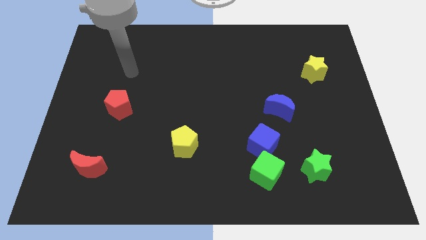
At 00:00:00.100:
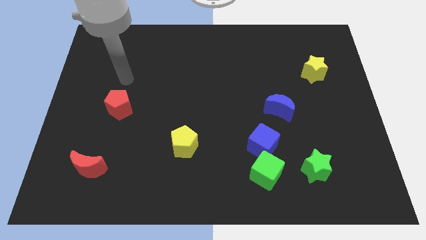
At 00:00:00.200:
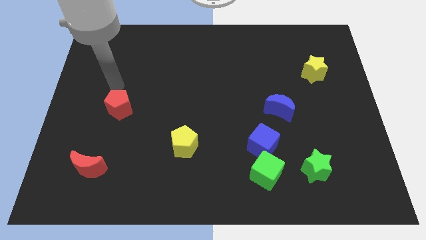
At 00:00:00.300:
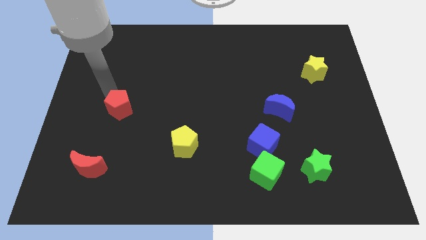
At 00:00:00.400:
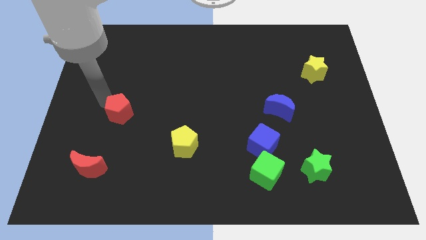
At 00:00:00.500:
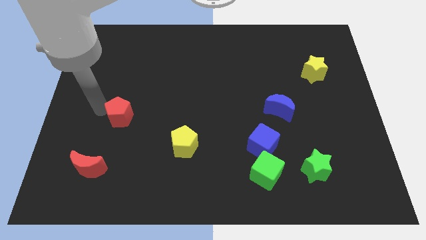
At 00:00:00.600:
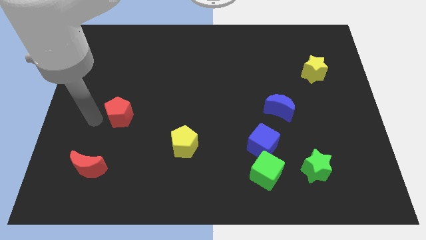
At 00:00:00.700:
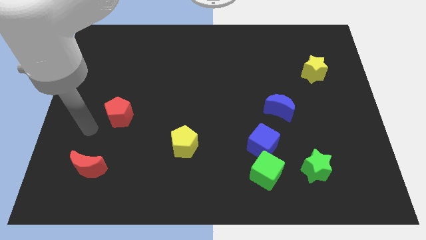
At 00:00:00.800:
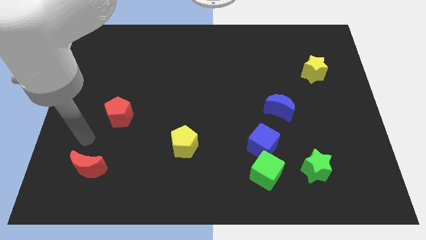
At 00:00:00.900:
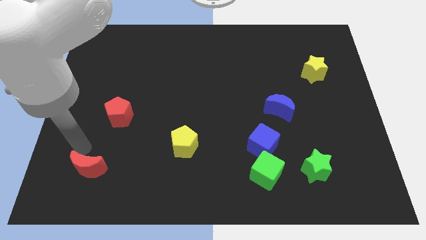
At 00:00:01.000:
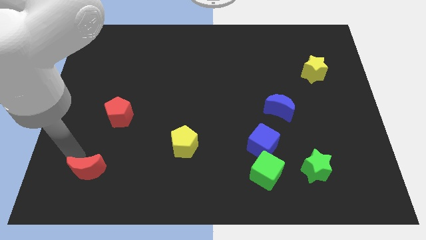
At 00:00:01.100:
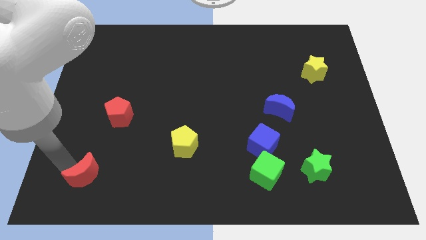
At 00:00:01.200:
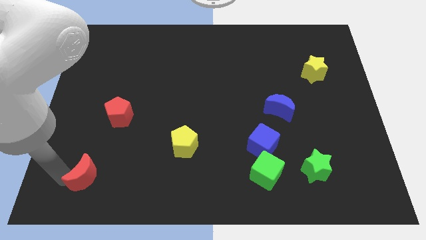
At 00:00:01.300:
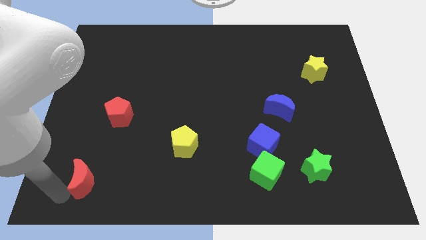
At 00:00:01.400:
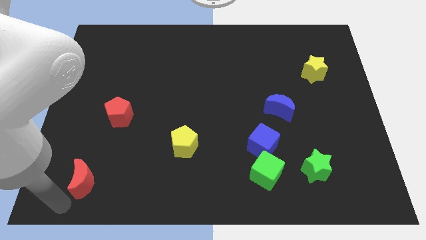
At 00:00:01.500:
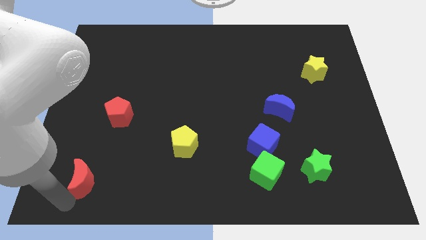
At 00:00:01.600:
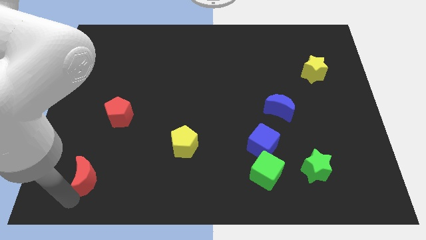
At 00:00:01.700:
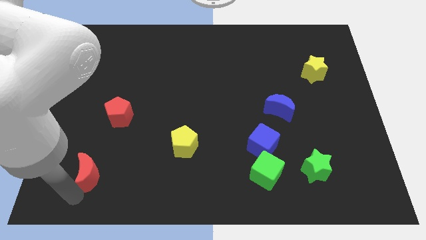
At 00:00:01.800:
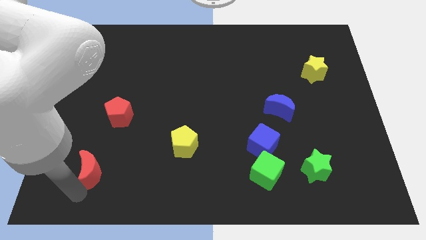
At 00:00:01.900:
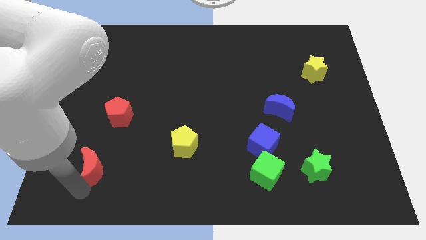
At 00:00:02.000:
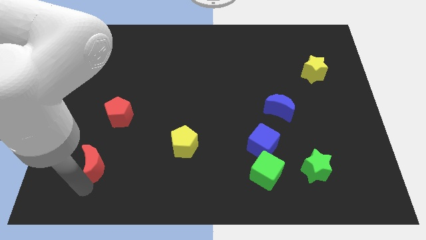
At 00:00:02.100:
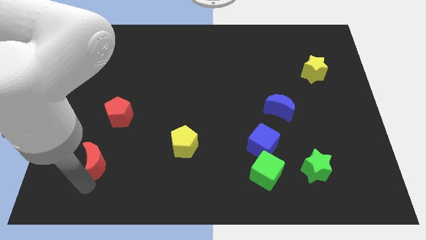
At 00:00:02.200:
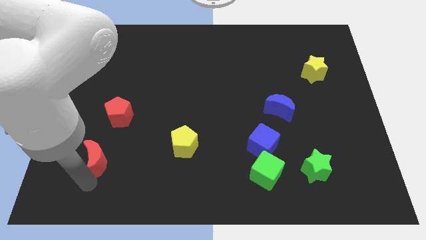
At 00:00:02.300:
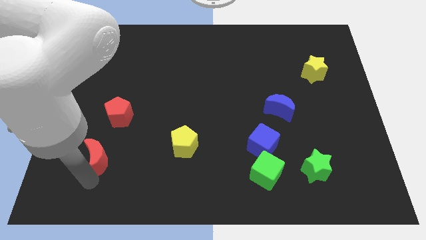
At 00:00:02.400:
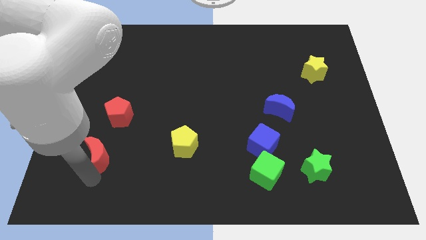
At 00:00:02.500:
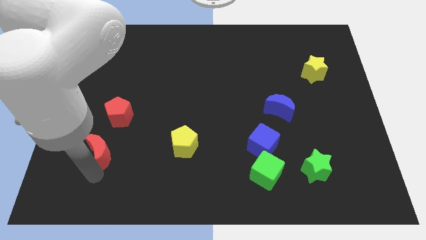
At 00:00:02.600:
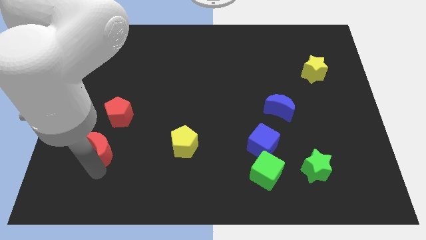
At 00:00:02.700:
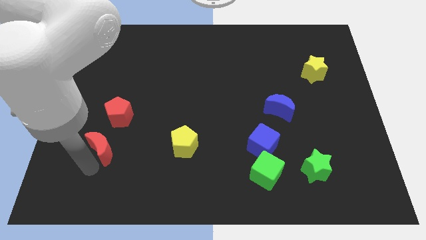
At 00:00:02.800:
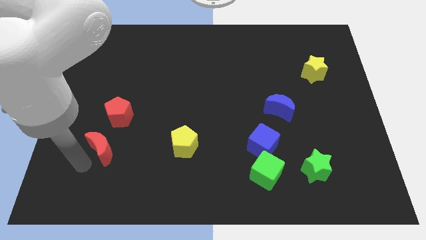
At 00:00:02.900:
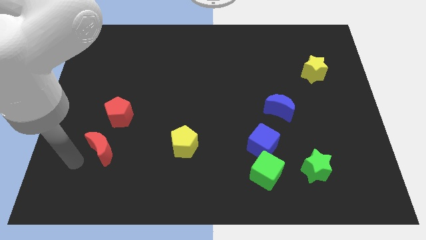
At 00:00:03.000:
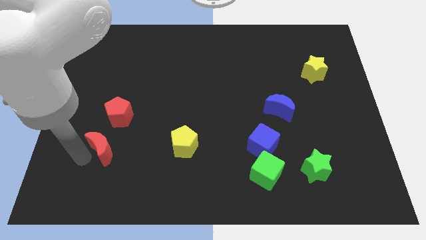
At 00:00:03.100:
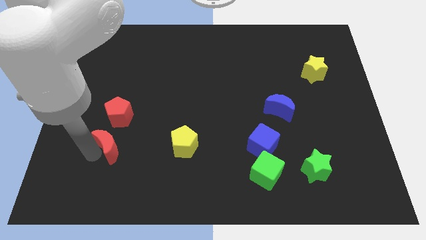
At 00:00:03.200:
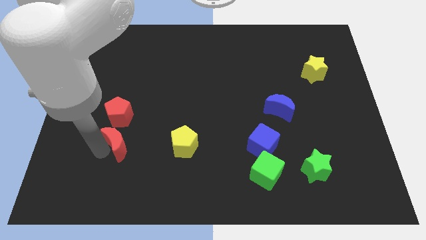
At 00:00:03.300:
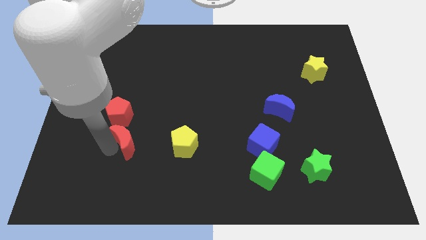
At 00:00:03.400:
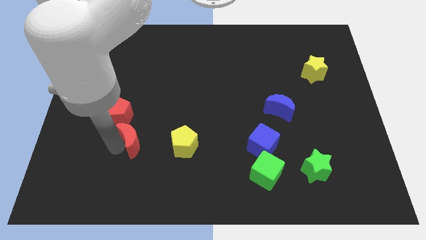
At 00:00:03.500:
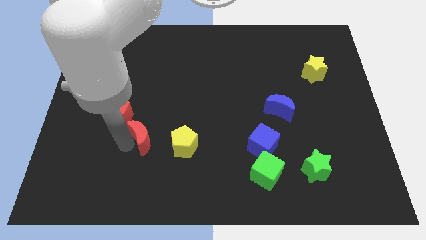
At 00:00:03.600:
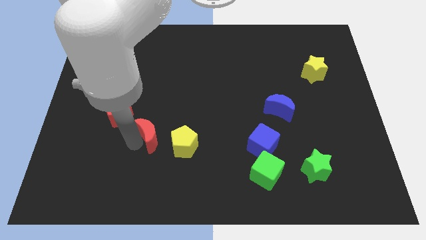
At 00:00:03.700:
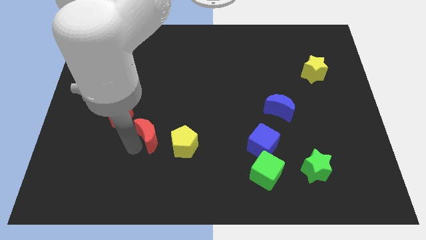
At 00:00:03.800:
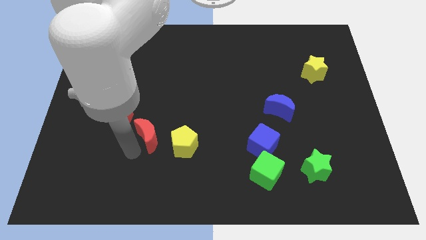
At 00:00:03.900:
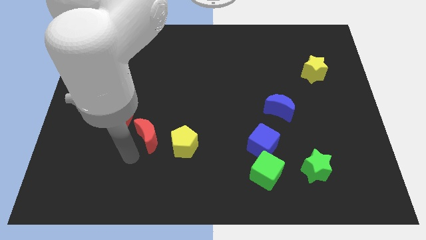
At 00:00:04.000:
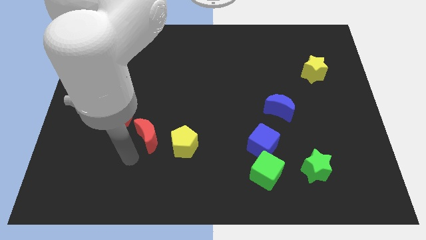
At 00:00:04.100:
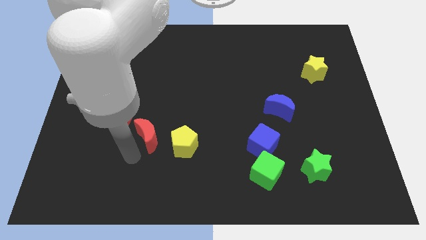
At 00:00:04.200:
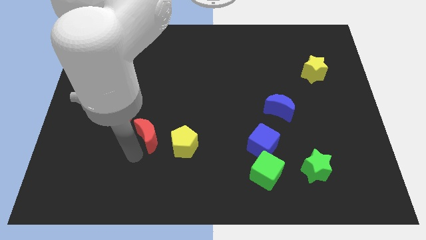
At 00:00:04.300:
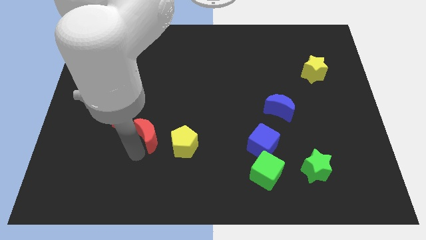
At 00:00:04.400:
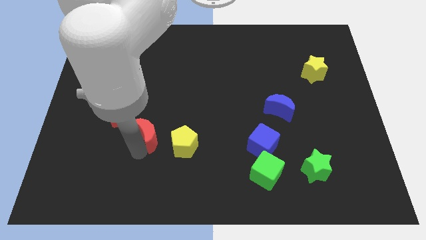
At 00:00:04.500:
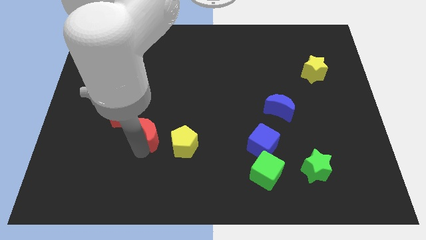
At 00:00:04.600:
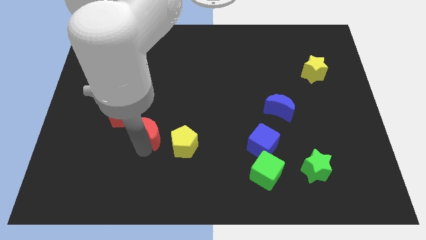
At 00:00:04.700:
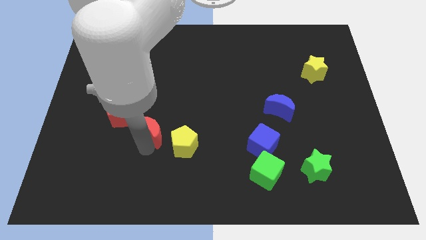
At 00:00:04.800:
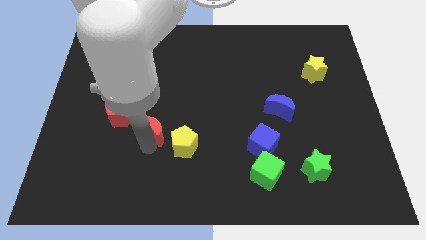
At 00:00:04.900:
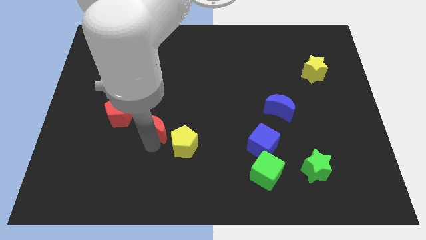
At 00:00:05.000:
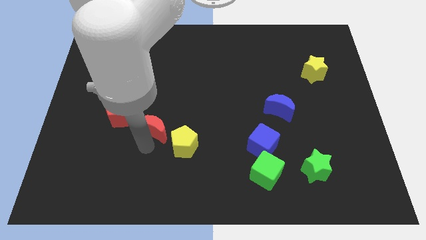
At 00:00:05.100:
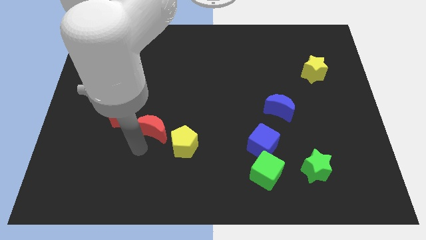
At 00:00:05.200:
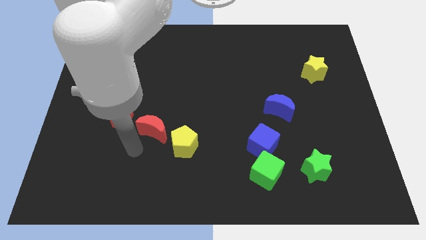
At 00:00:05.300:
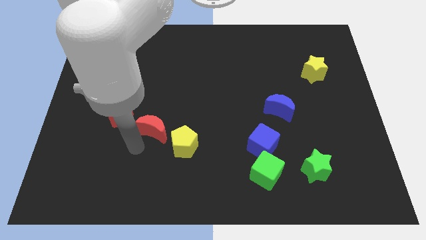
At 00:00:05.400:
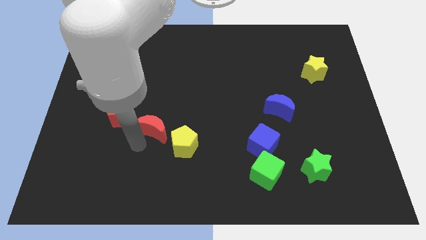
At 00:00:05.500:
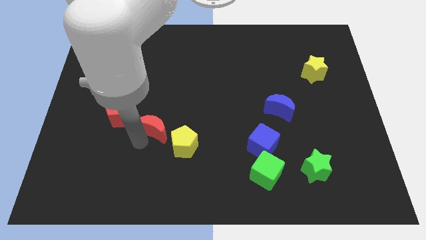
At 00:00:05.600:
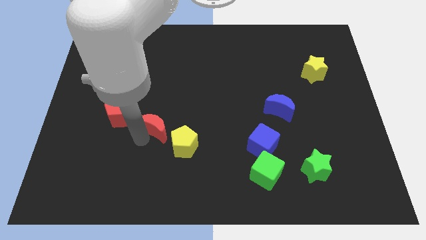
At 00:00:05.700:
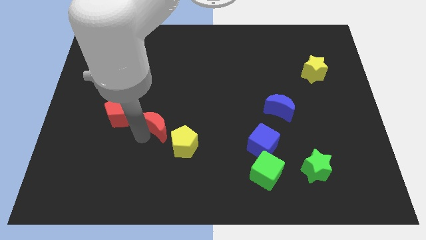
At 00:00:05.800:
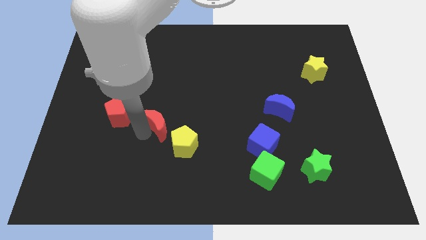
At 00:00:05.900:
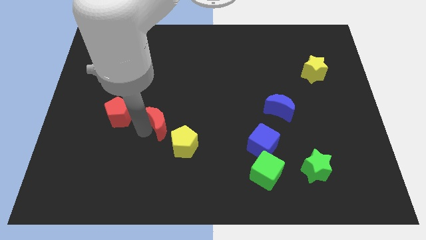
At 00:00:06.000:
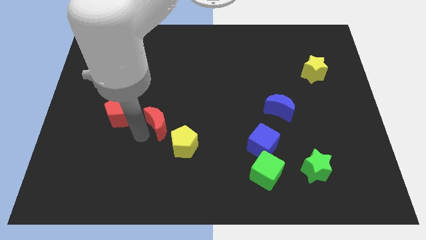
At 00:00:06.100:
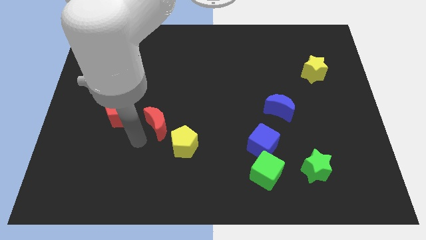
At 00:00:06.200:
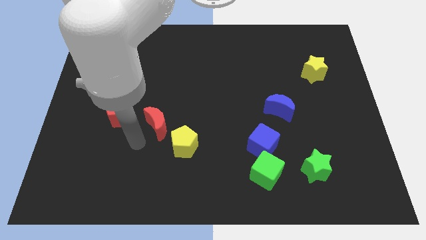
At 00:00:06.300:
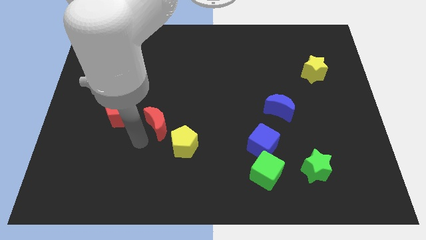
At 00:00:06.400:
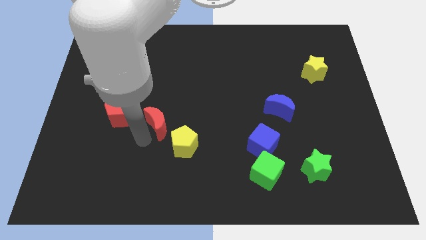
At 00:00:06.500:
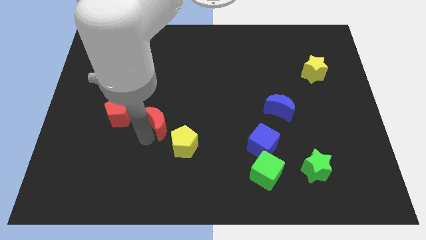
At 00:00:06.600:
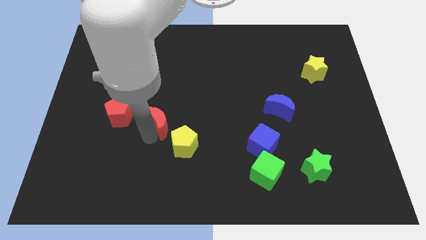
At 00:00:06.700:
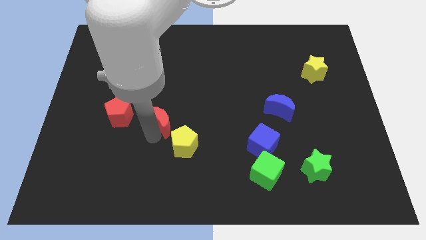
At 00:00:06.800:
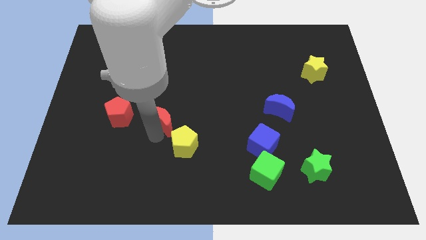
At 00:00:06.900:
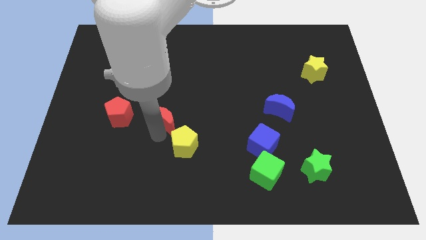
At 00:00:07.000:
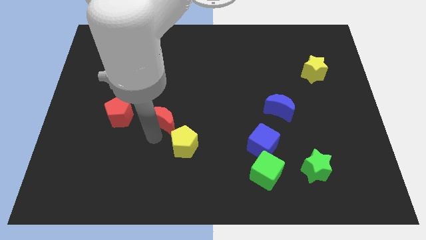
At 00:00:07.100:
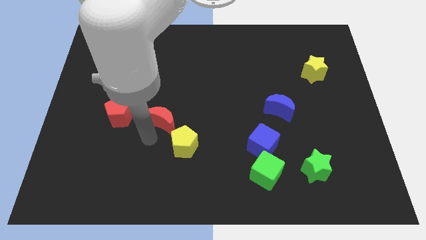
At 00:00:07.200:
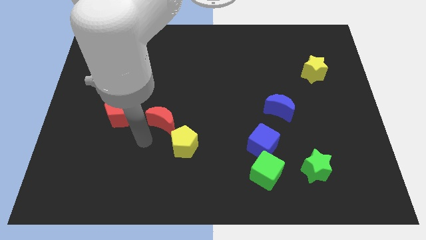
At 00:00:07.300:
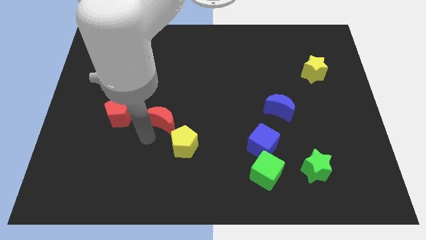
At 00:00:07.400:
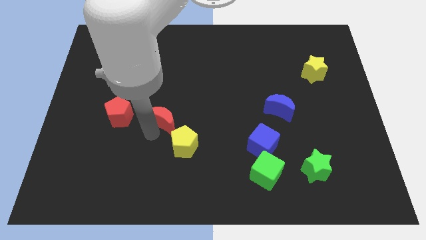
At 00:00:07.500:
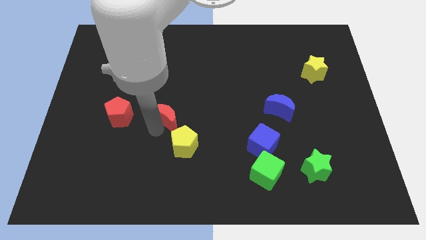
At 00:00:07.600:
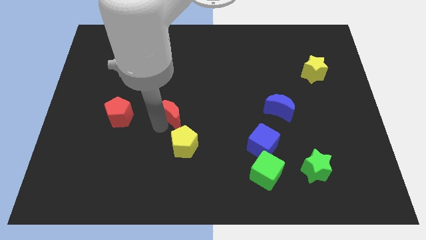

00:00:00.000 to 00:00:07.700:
move the red moon upwards and right
